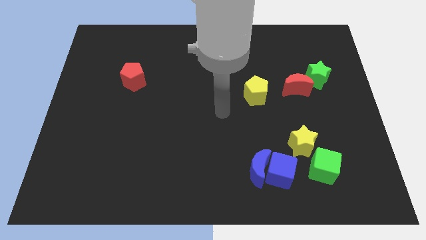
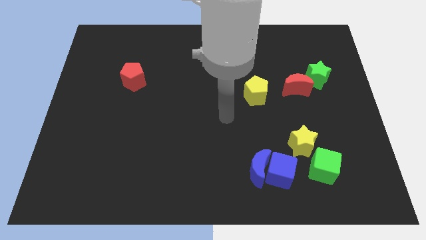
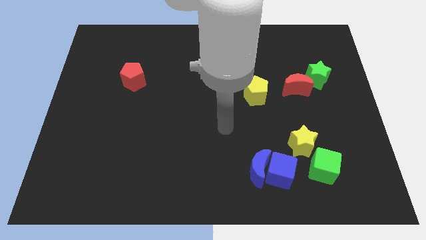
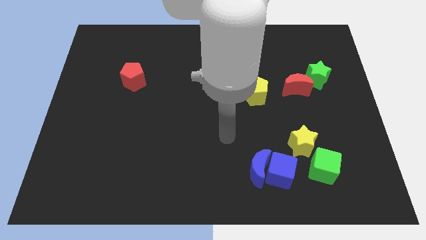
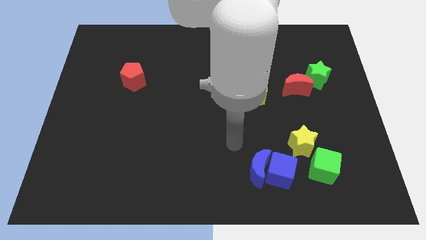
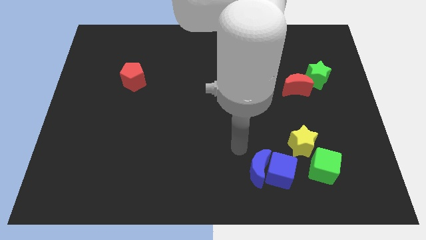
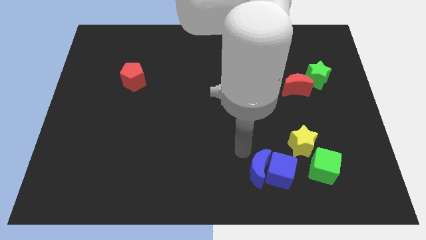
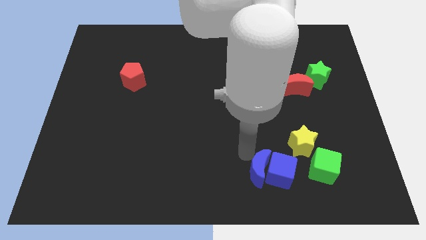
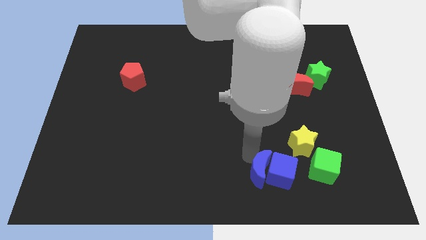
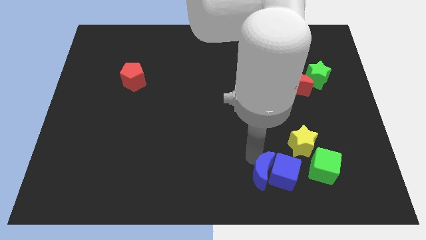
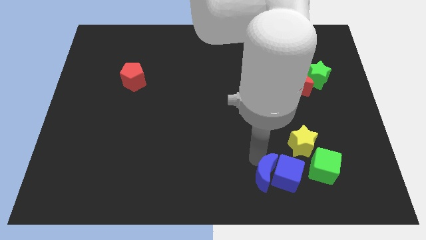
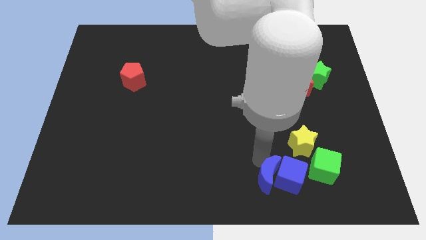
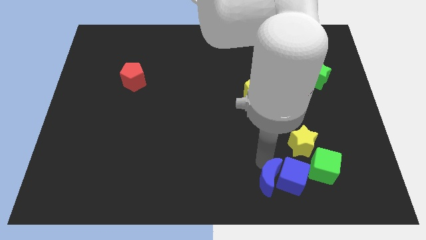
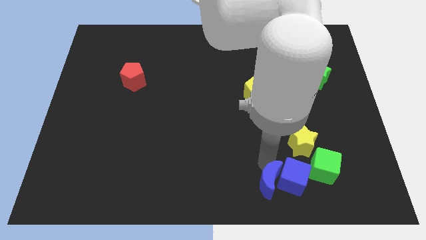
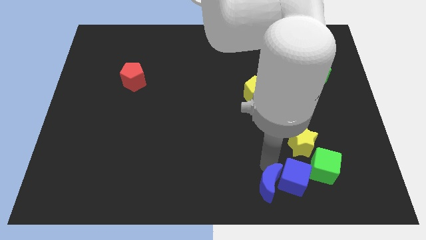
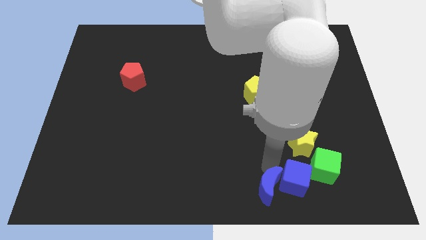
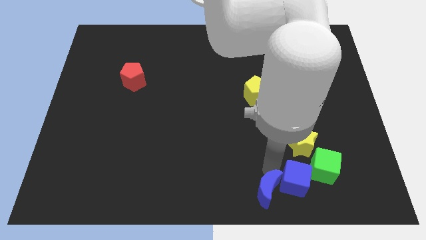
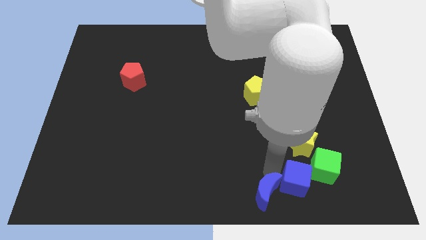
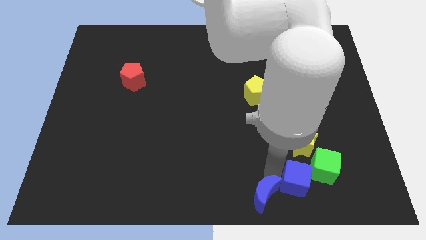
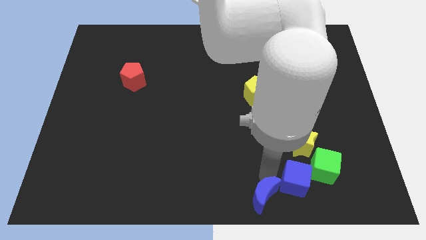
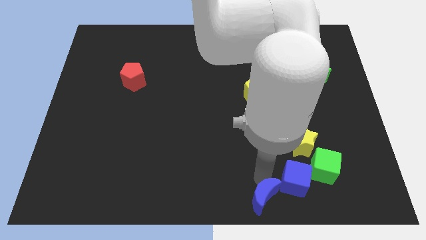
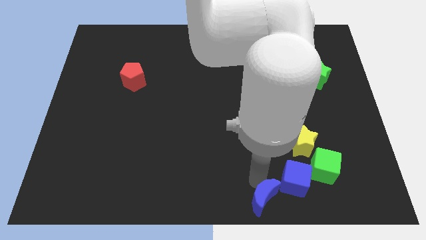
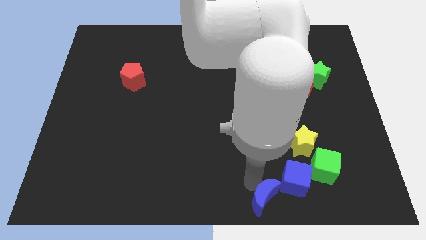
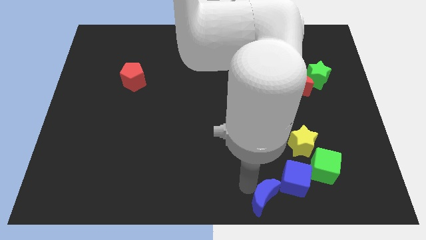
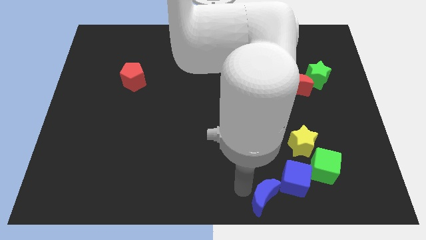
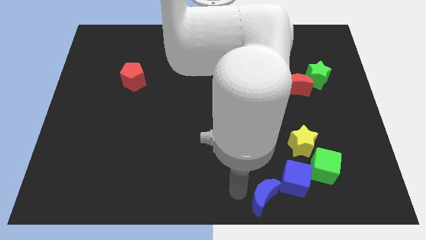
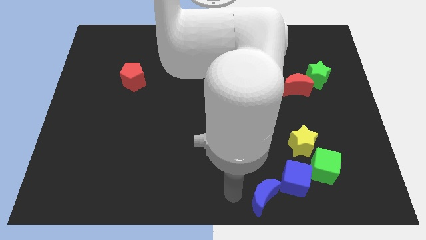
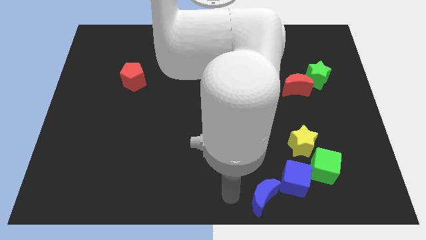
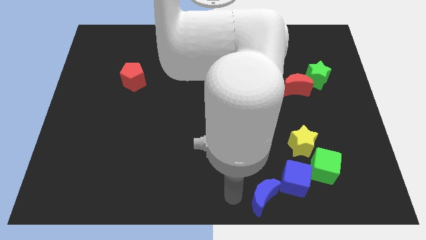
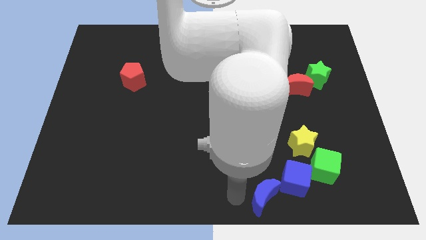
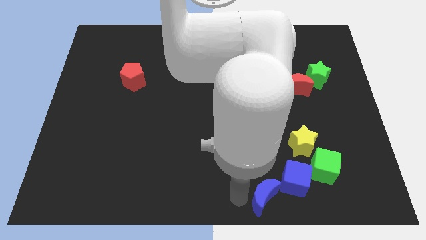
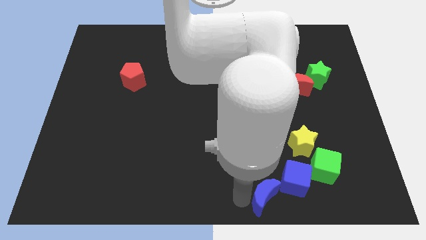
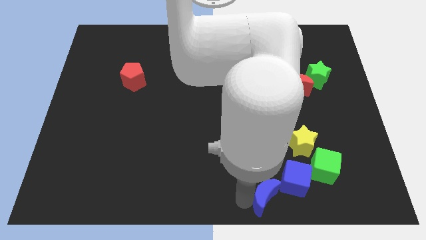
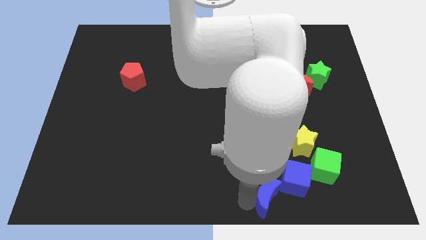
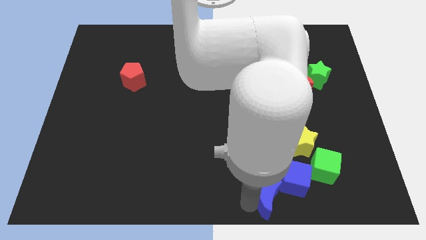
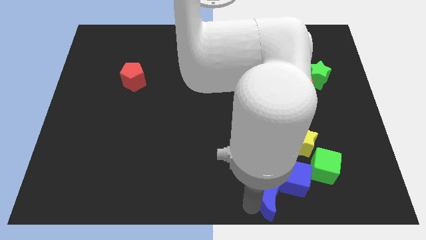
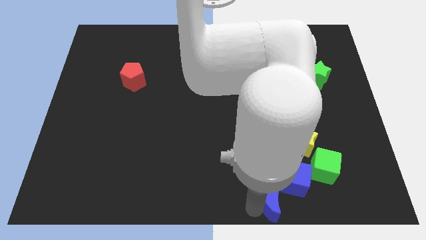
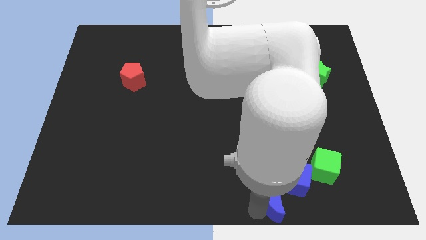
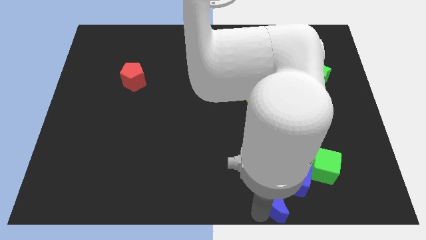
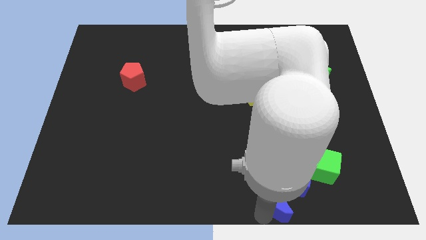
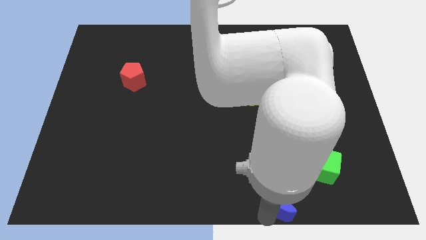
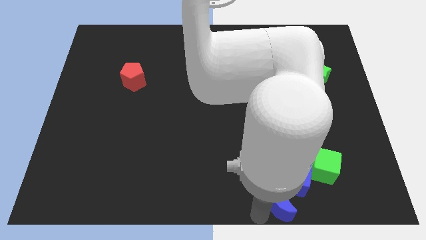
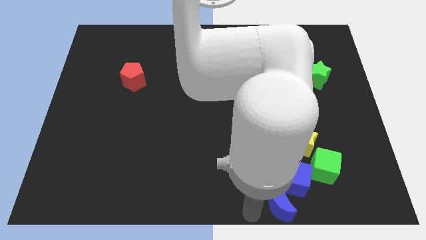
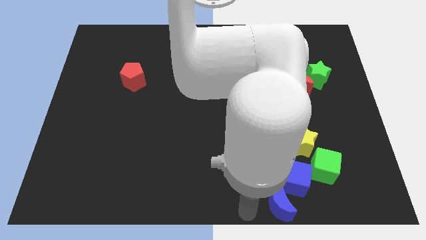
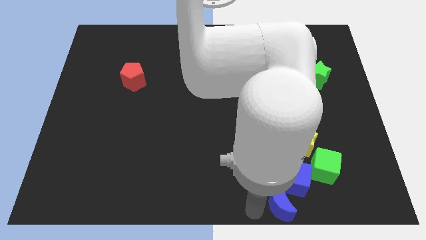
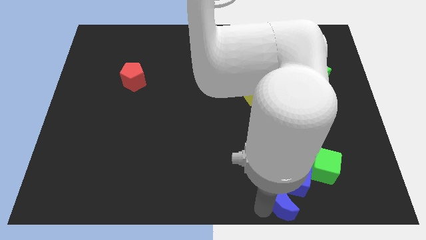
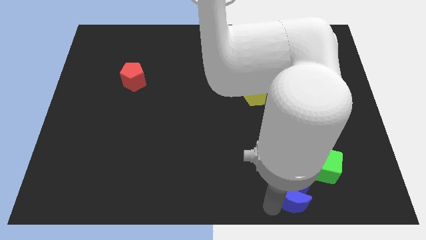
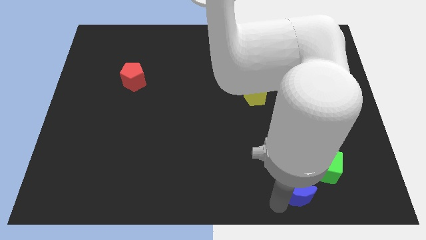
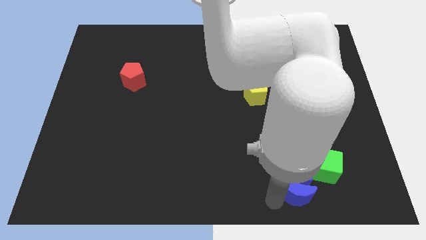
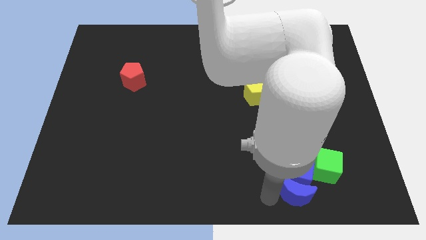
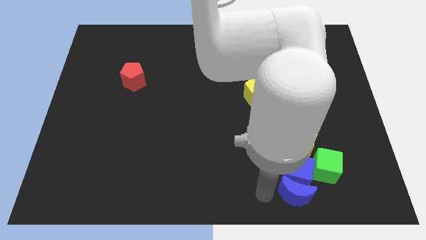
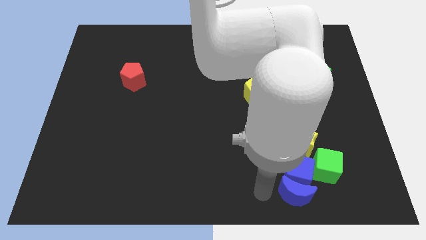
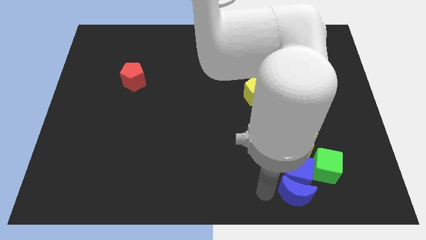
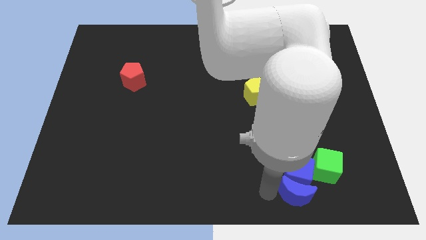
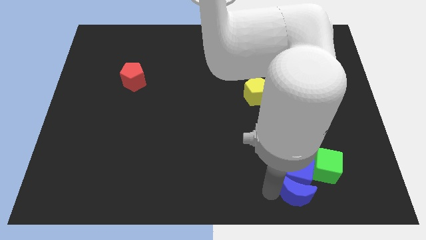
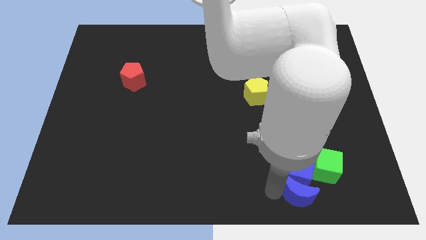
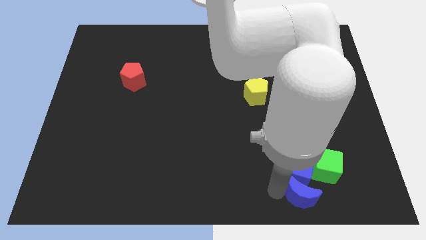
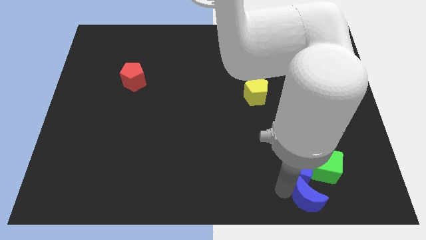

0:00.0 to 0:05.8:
move the blue moon somewhat to the right

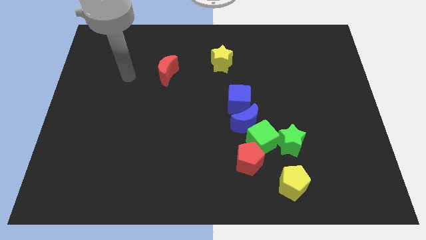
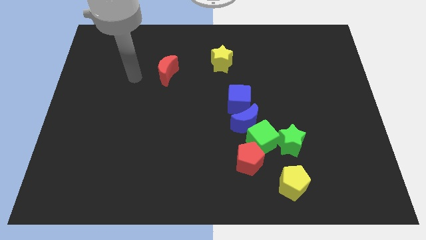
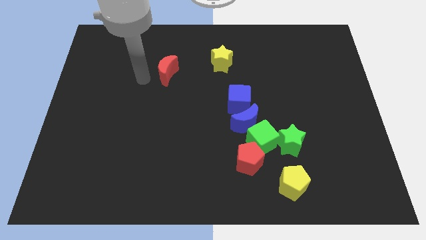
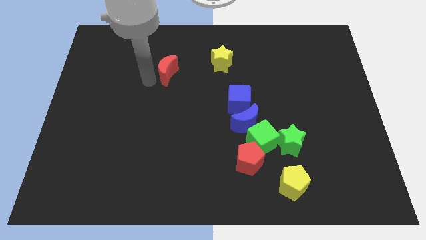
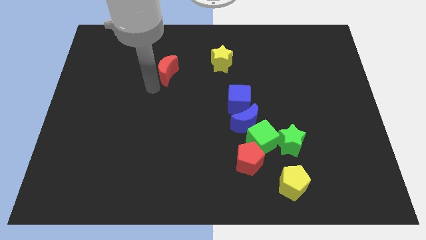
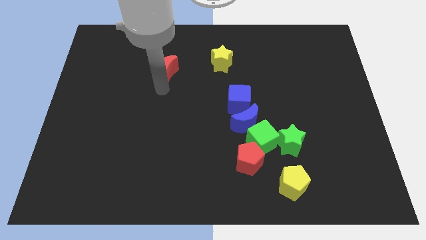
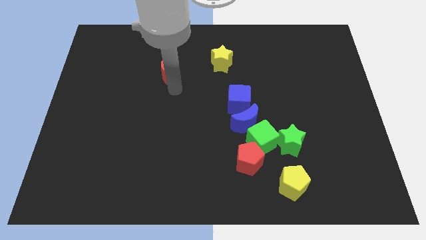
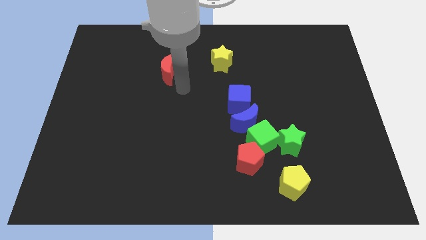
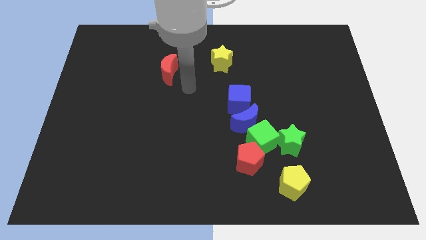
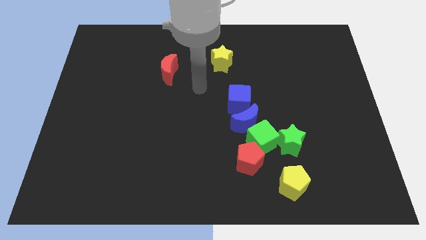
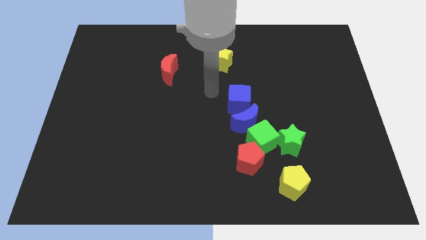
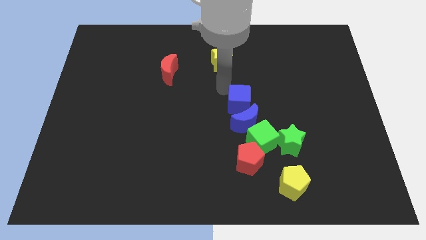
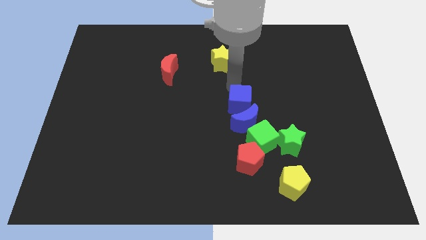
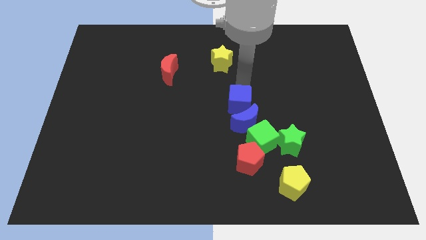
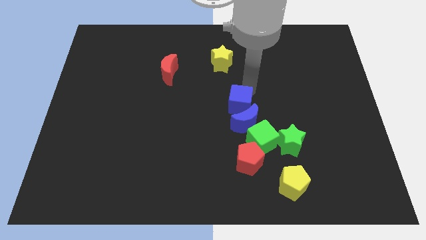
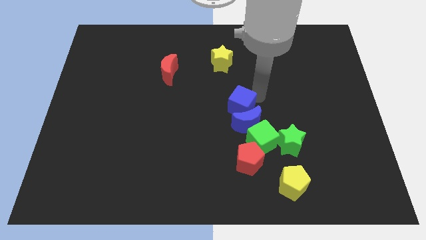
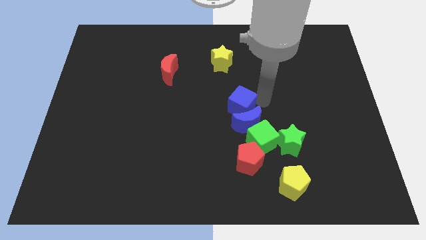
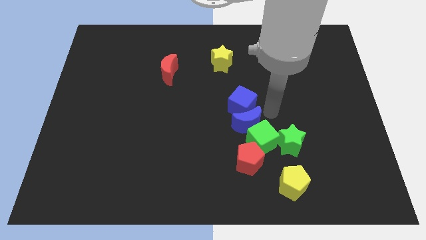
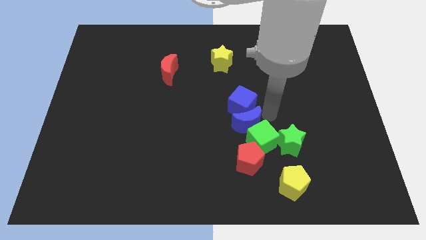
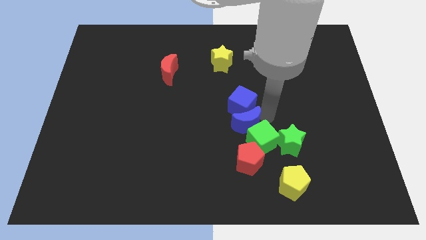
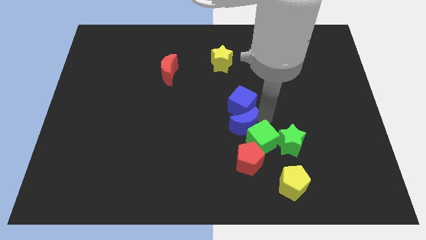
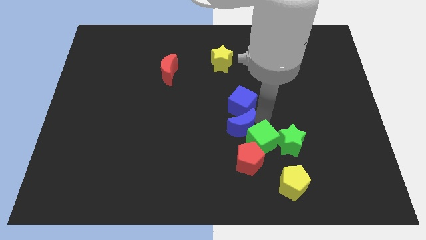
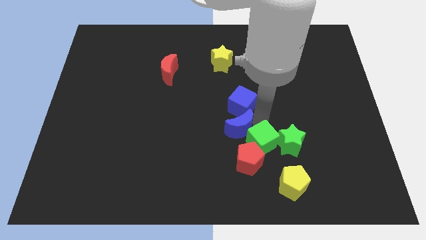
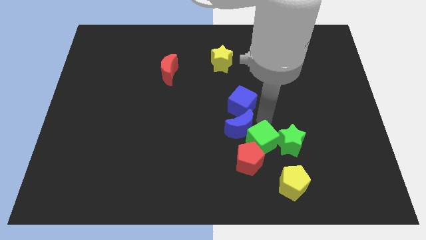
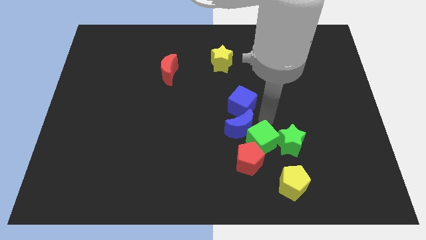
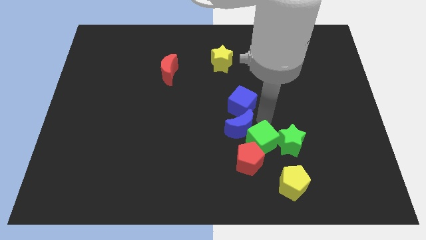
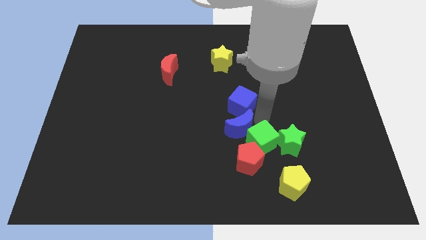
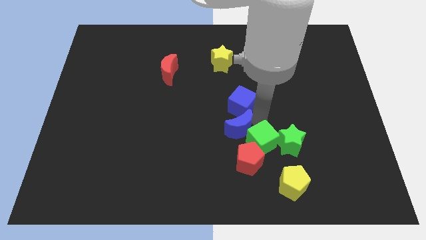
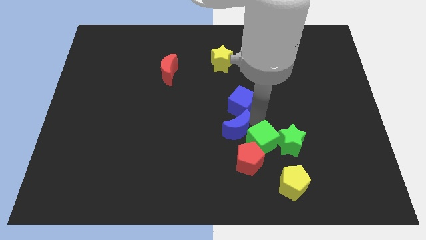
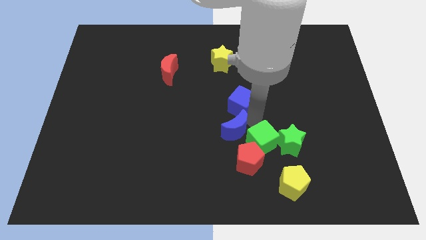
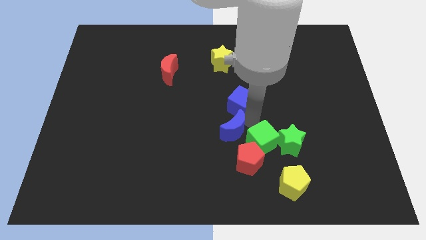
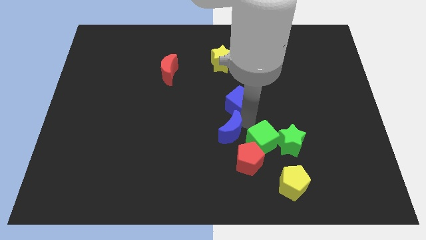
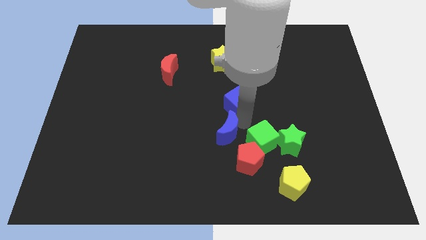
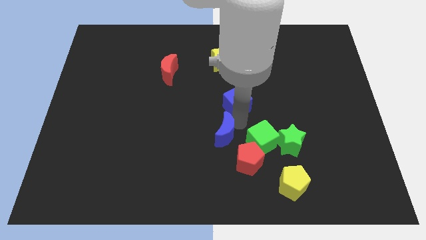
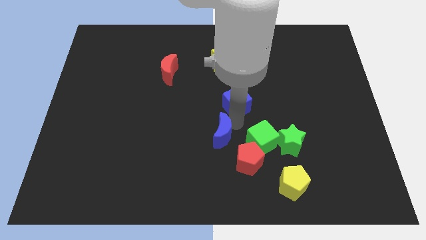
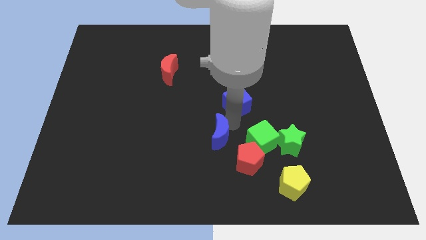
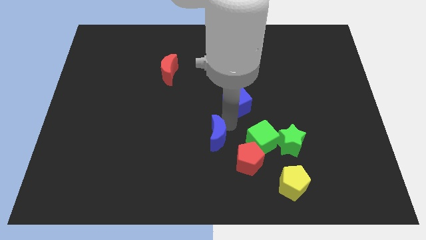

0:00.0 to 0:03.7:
slightly move the blue moon downwards and left
